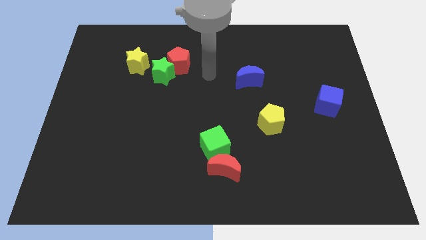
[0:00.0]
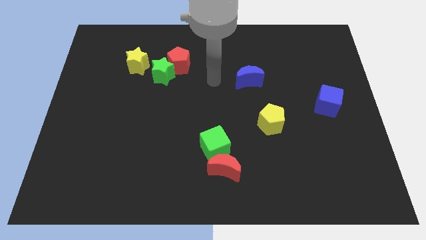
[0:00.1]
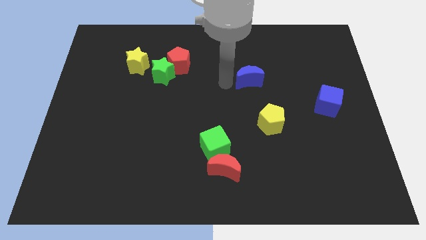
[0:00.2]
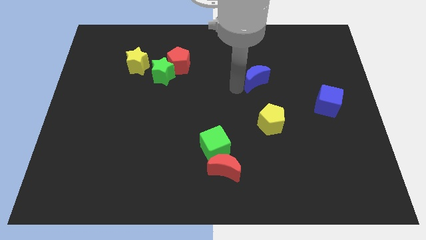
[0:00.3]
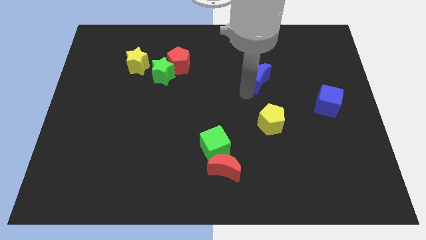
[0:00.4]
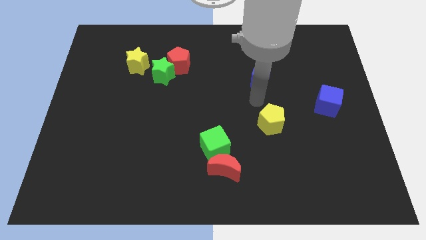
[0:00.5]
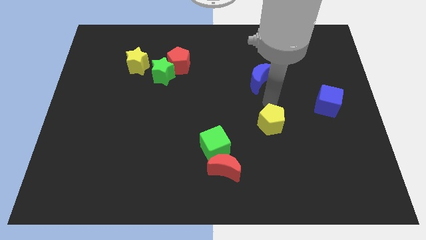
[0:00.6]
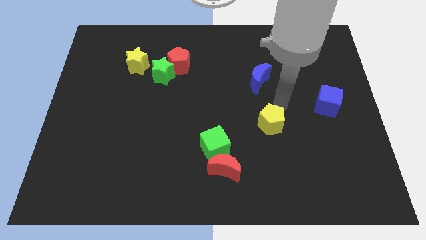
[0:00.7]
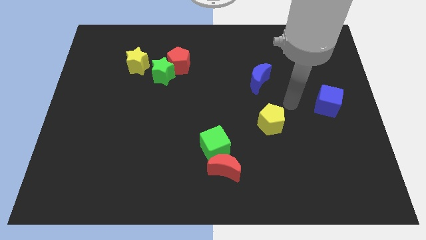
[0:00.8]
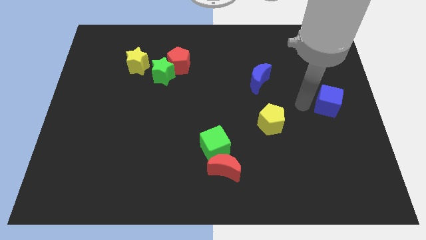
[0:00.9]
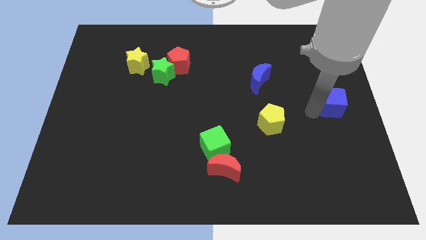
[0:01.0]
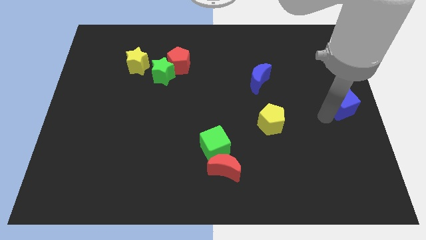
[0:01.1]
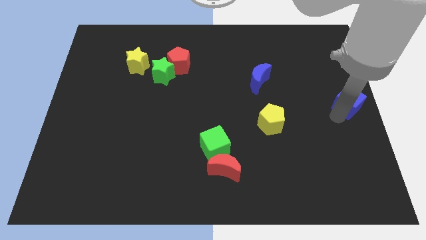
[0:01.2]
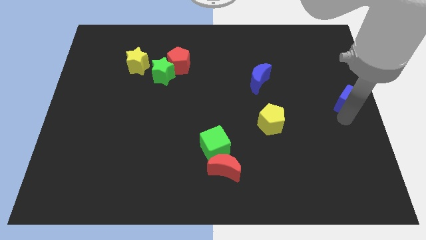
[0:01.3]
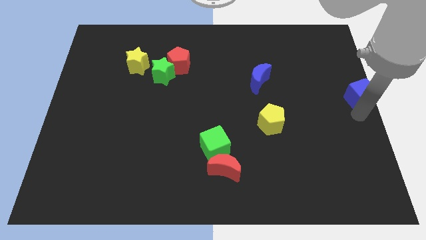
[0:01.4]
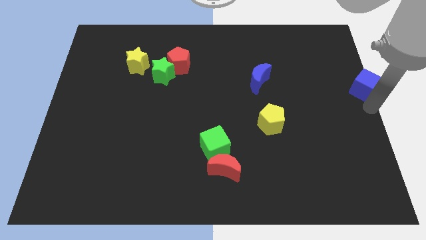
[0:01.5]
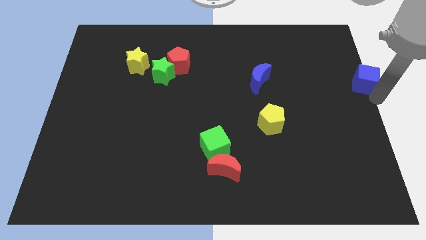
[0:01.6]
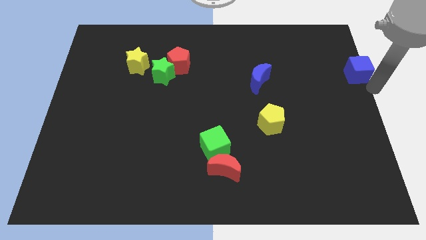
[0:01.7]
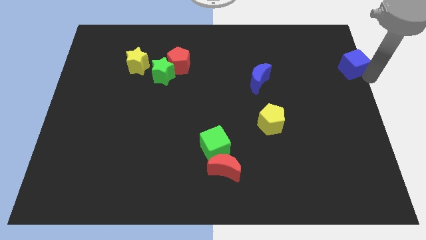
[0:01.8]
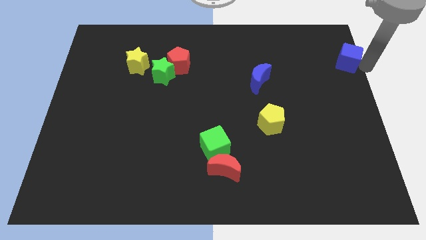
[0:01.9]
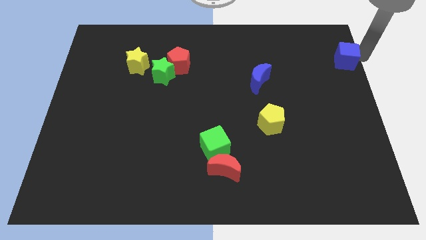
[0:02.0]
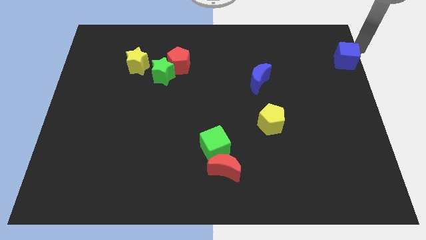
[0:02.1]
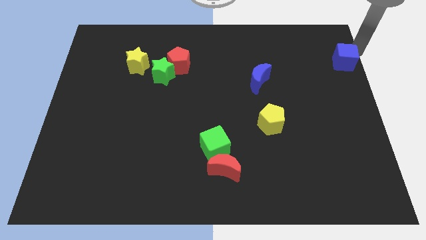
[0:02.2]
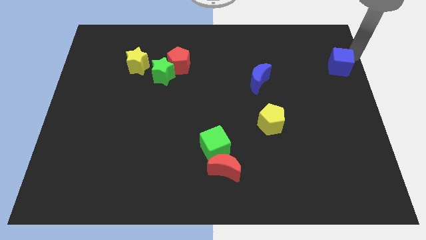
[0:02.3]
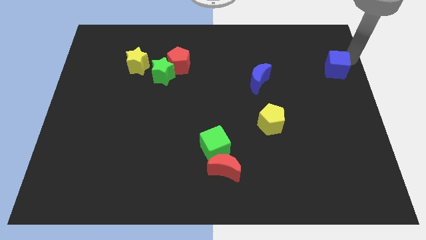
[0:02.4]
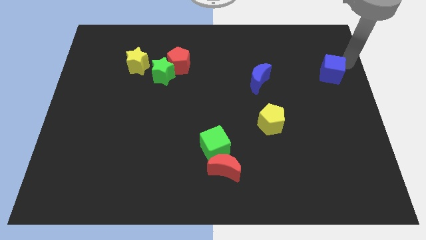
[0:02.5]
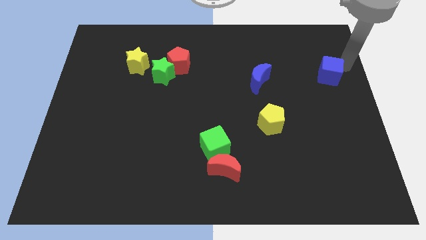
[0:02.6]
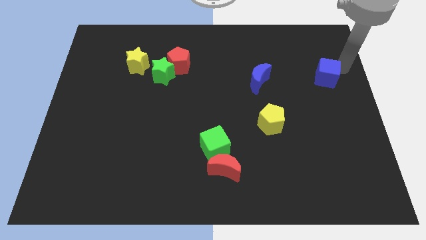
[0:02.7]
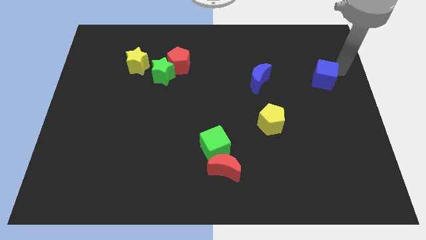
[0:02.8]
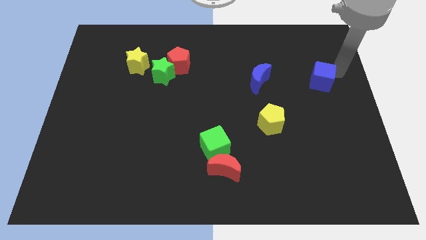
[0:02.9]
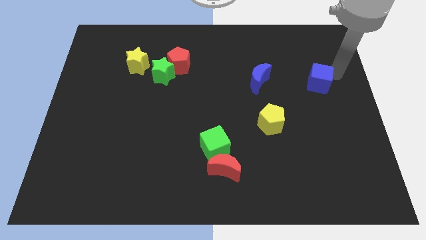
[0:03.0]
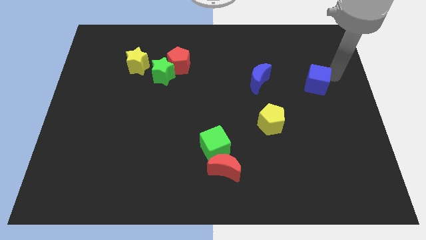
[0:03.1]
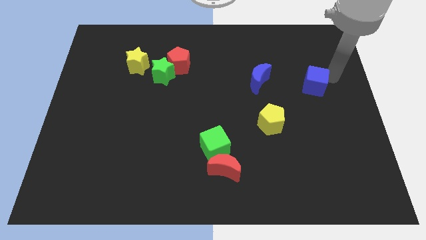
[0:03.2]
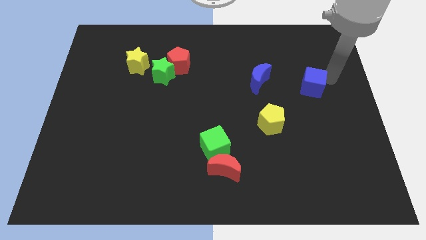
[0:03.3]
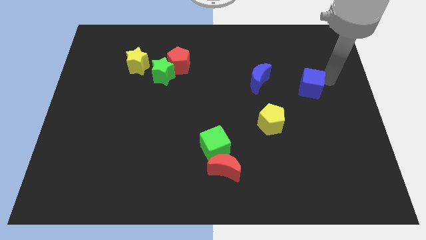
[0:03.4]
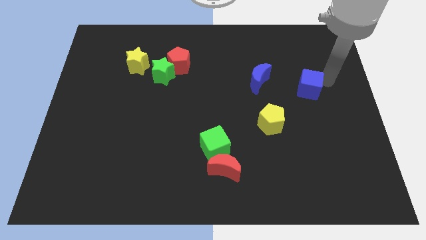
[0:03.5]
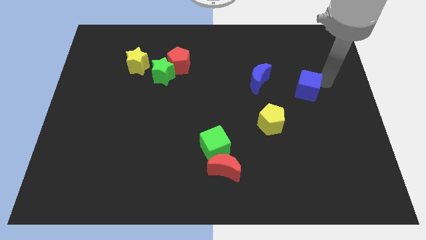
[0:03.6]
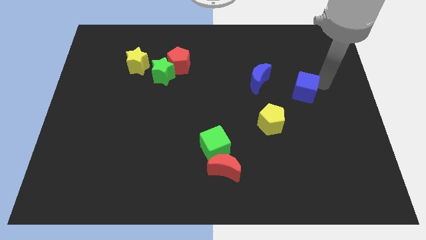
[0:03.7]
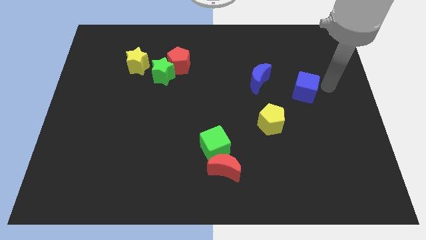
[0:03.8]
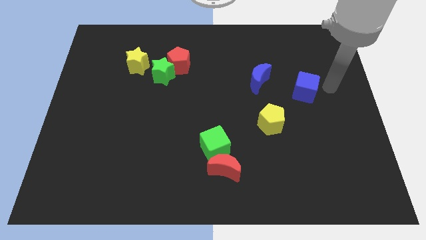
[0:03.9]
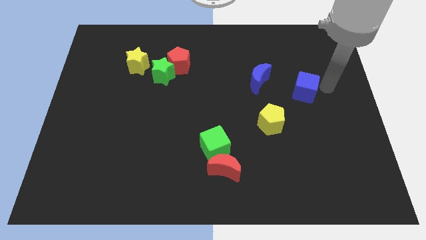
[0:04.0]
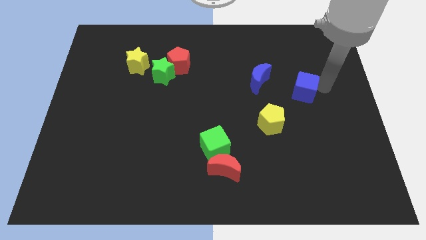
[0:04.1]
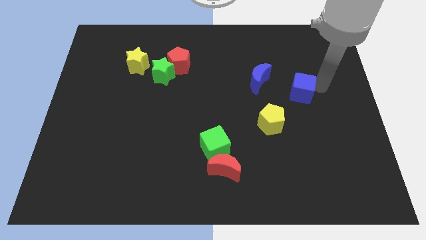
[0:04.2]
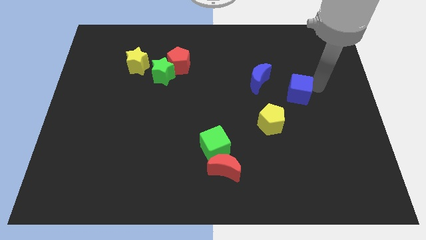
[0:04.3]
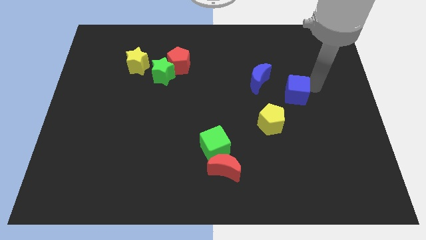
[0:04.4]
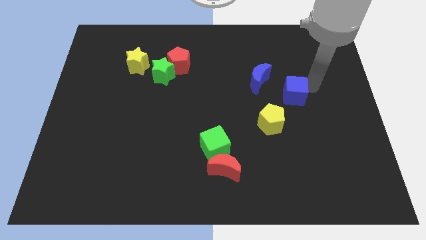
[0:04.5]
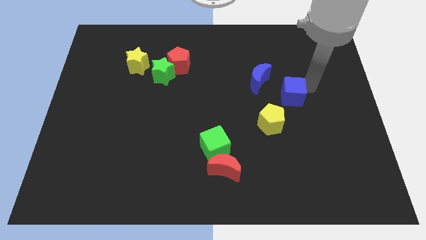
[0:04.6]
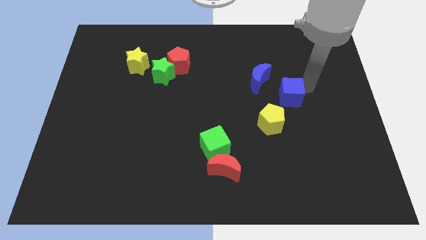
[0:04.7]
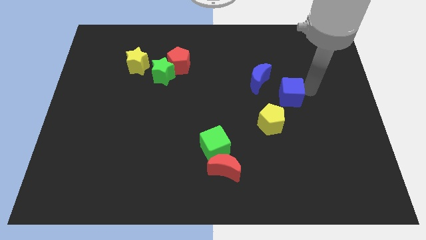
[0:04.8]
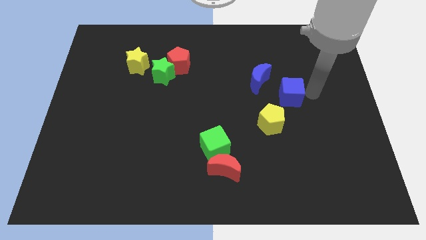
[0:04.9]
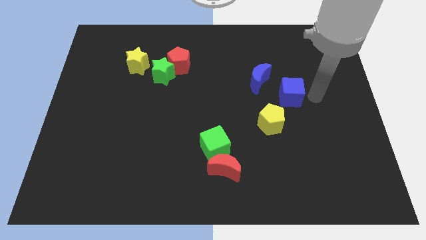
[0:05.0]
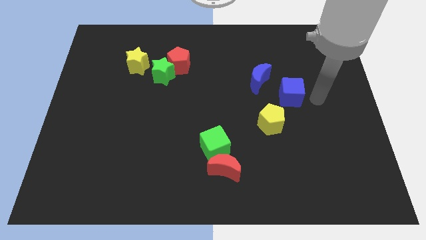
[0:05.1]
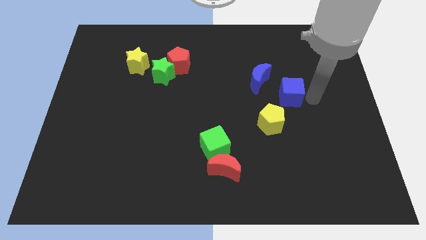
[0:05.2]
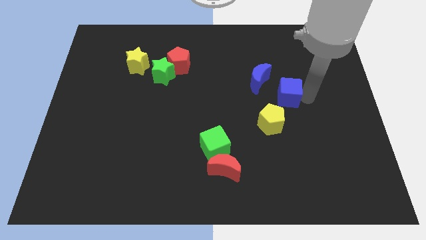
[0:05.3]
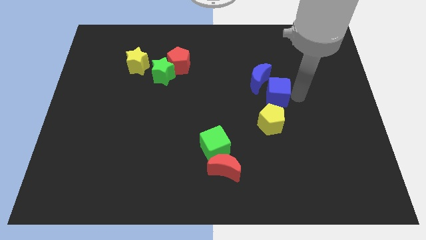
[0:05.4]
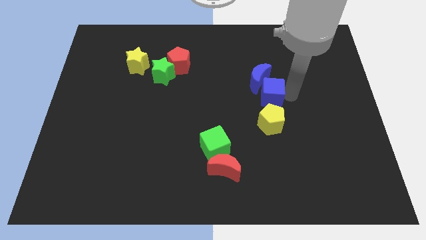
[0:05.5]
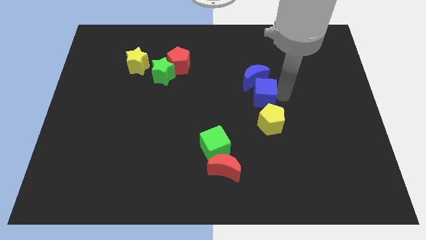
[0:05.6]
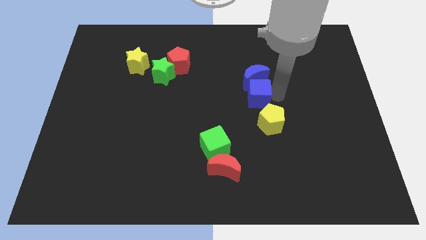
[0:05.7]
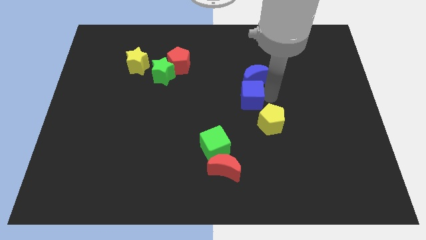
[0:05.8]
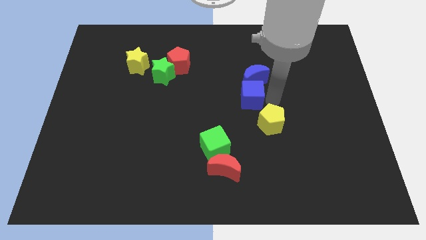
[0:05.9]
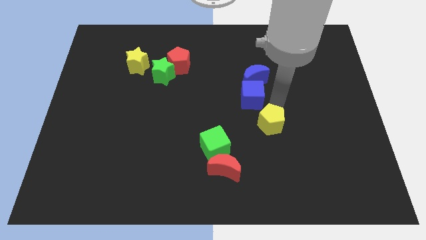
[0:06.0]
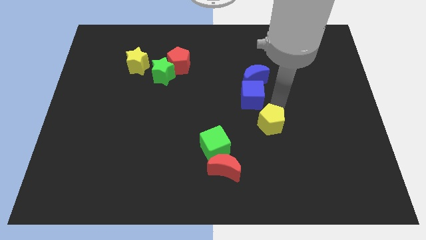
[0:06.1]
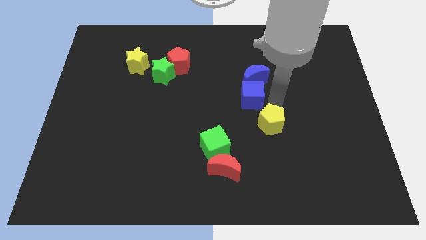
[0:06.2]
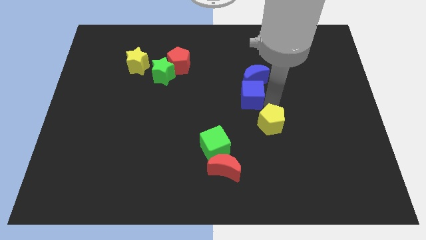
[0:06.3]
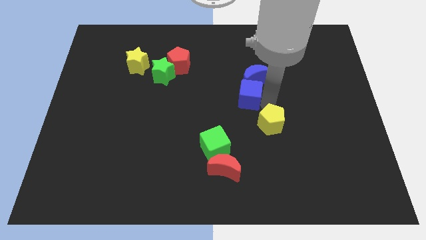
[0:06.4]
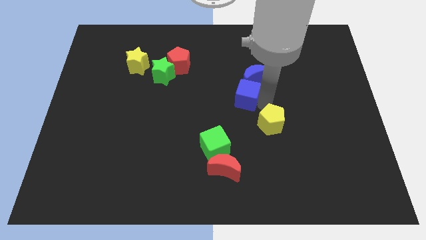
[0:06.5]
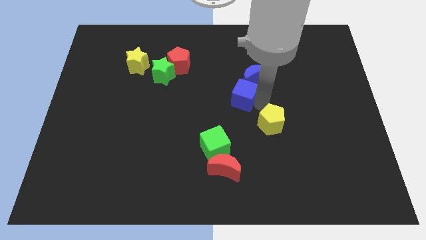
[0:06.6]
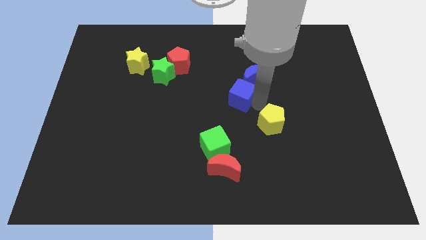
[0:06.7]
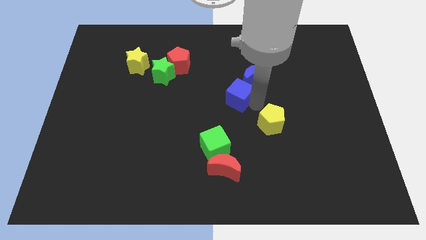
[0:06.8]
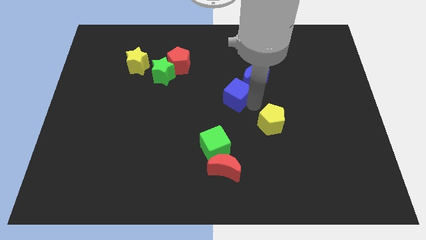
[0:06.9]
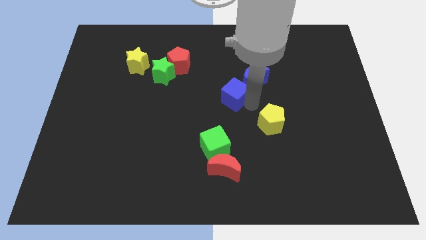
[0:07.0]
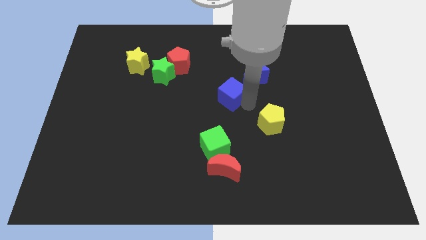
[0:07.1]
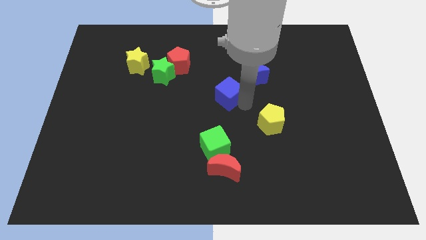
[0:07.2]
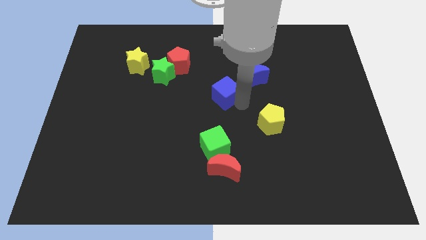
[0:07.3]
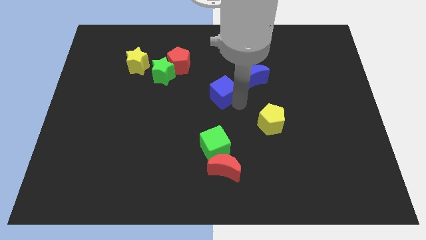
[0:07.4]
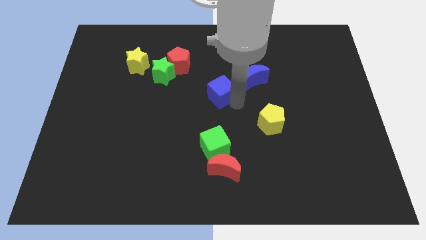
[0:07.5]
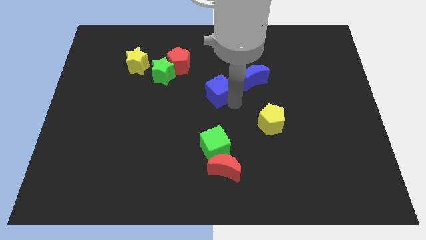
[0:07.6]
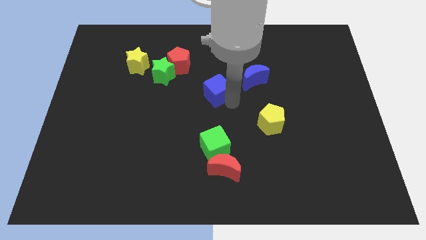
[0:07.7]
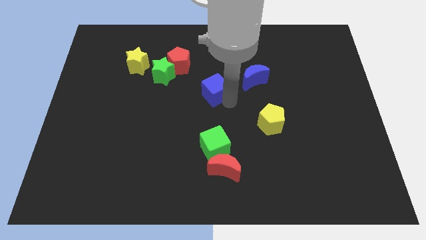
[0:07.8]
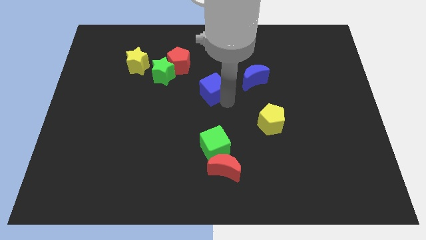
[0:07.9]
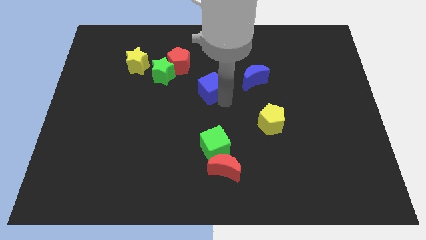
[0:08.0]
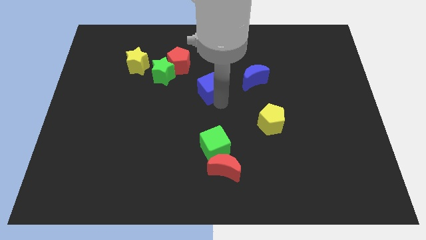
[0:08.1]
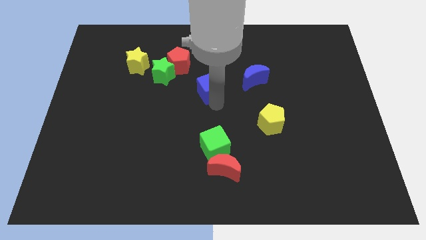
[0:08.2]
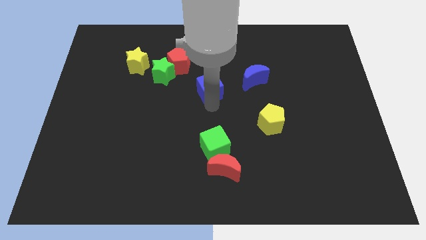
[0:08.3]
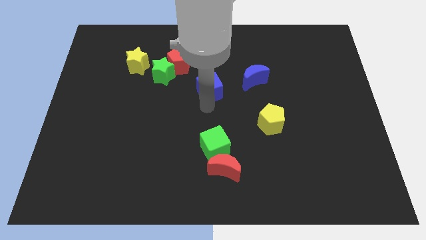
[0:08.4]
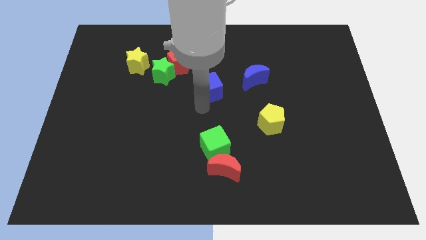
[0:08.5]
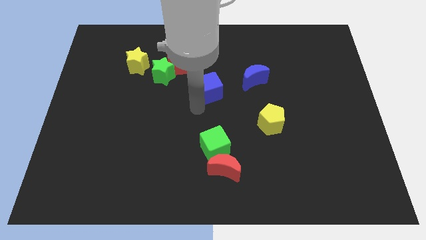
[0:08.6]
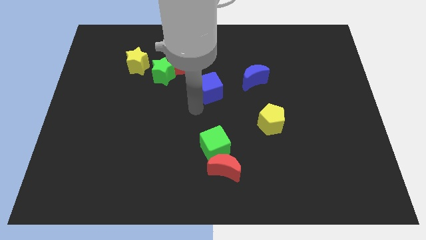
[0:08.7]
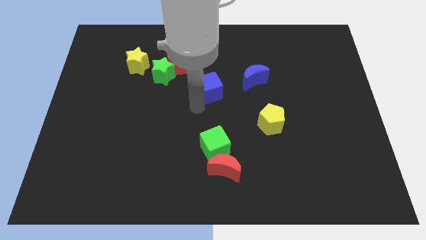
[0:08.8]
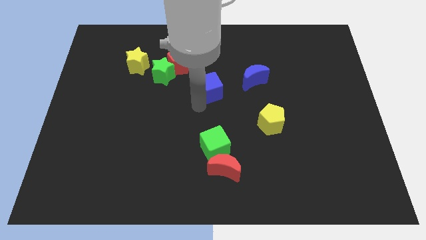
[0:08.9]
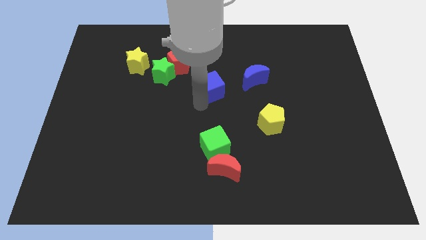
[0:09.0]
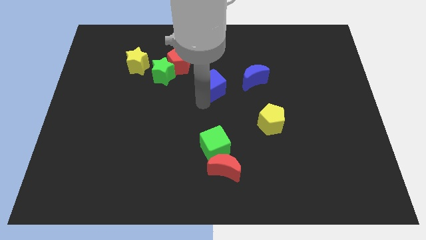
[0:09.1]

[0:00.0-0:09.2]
move the blue cube just right of the green star
